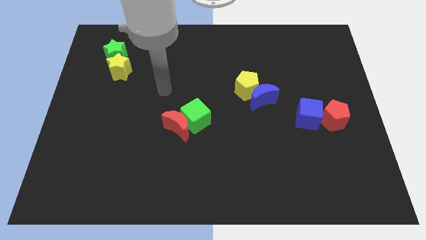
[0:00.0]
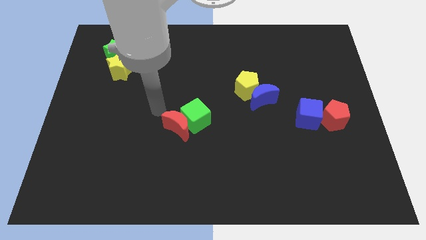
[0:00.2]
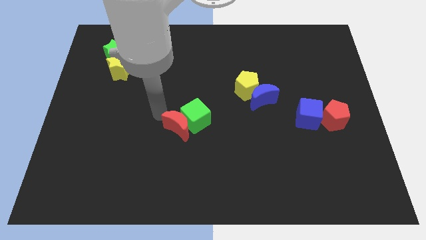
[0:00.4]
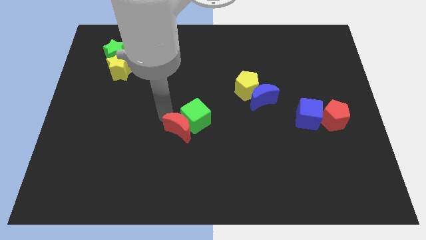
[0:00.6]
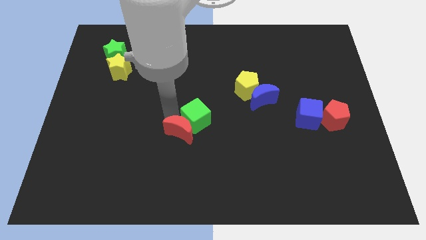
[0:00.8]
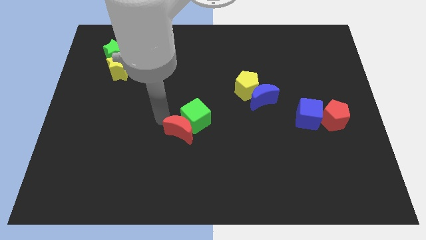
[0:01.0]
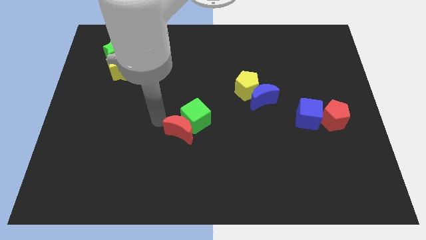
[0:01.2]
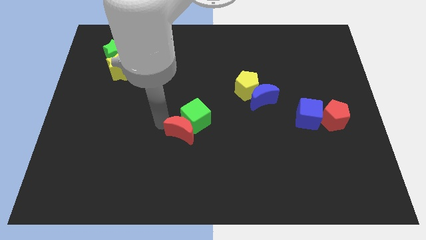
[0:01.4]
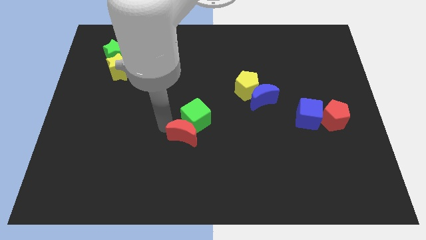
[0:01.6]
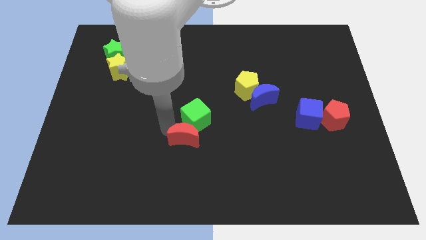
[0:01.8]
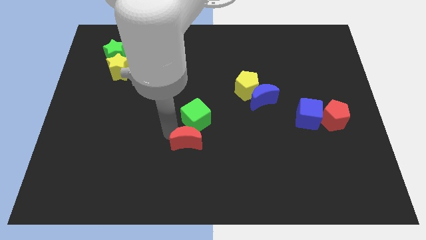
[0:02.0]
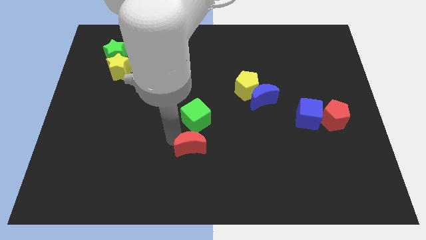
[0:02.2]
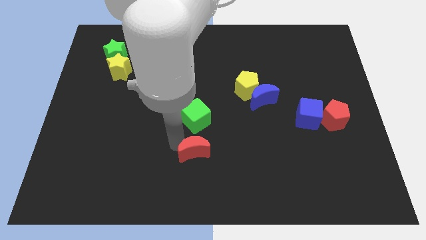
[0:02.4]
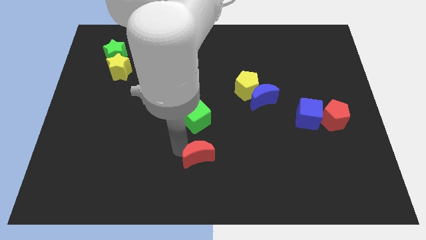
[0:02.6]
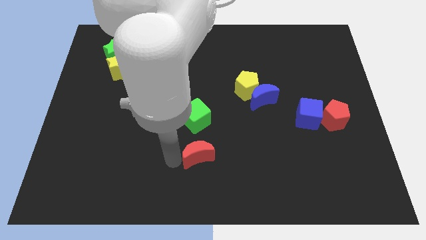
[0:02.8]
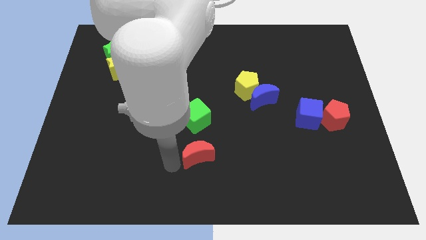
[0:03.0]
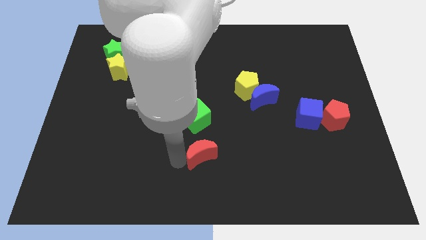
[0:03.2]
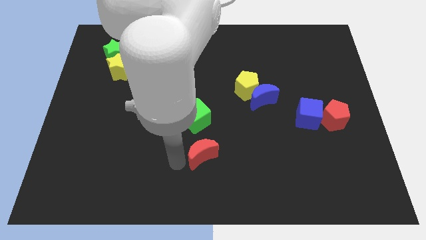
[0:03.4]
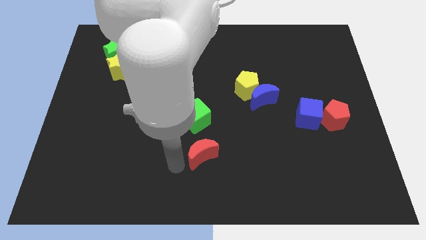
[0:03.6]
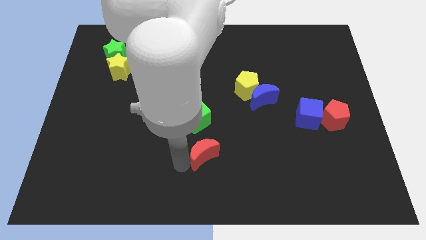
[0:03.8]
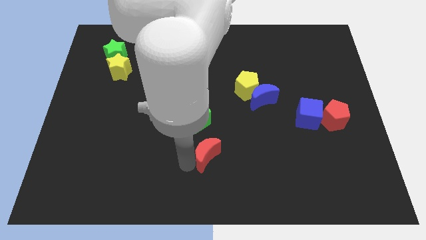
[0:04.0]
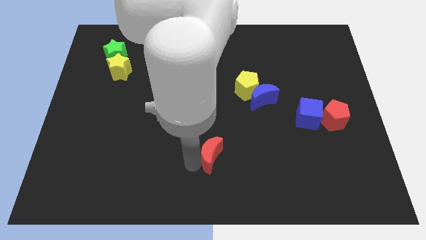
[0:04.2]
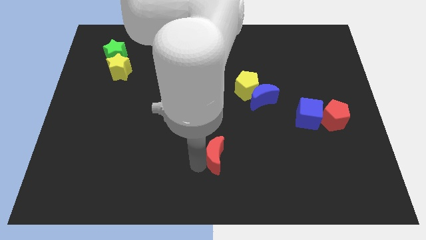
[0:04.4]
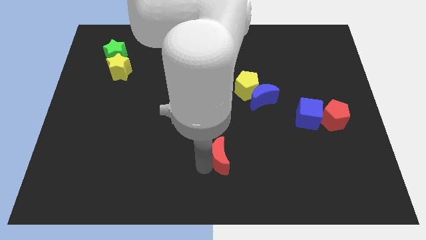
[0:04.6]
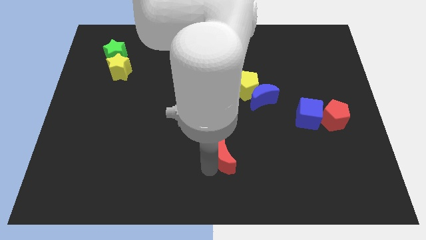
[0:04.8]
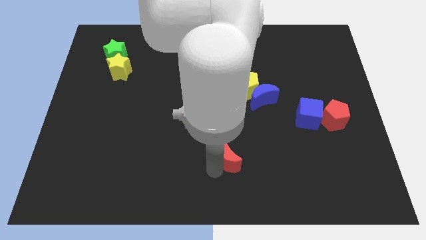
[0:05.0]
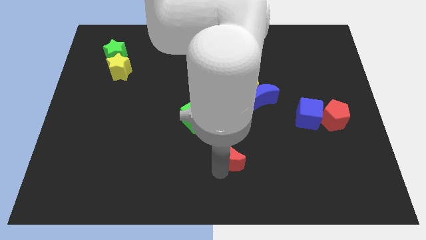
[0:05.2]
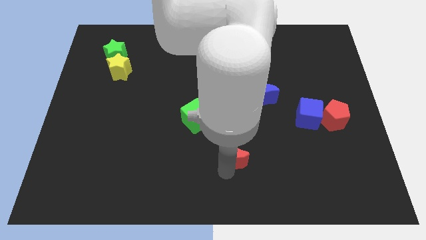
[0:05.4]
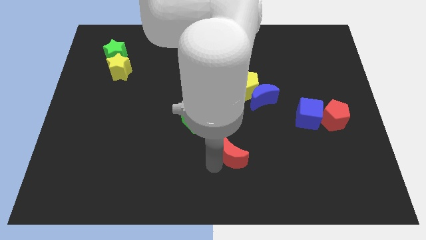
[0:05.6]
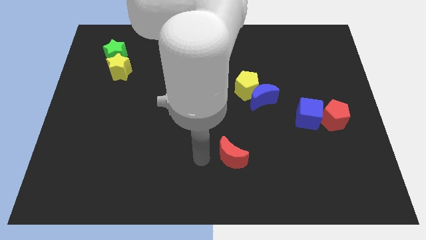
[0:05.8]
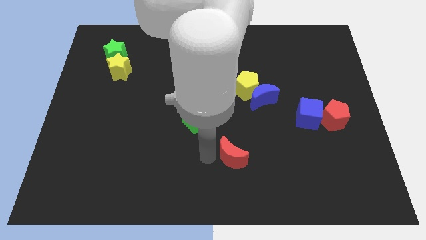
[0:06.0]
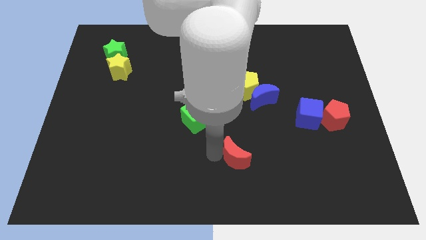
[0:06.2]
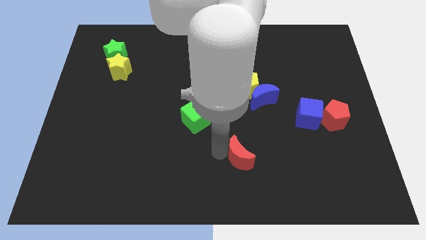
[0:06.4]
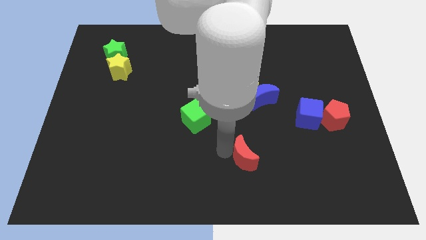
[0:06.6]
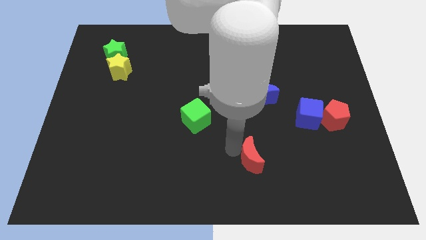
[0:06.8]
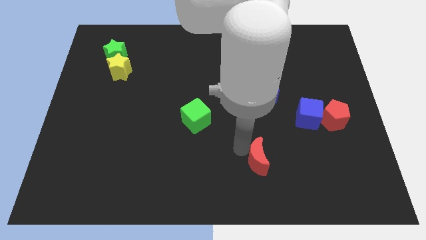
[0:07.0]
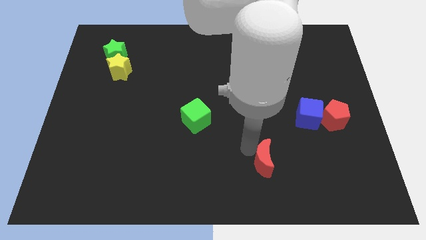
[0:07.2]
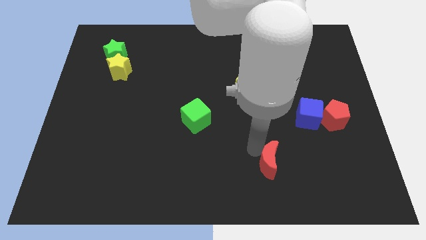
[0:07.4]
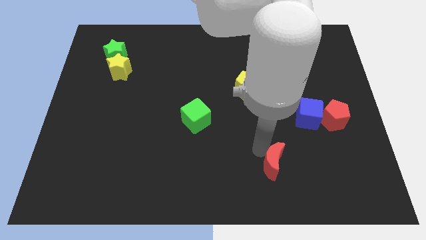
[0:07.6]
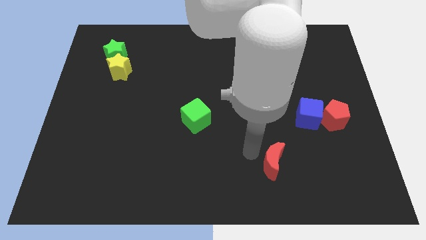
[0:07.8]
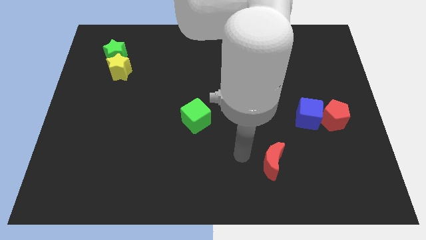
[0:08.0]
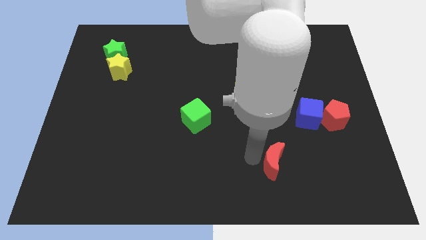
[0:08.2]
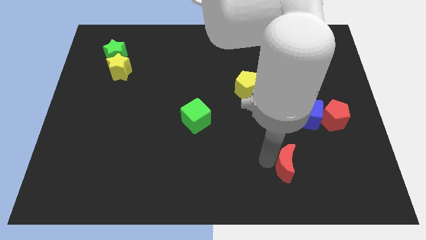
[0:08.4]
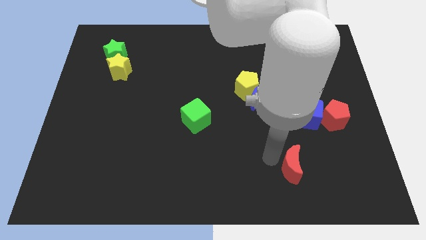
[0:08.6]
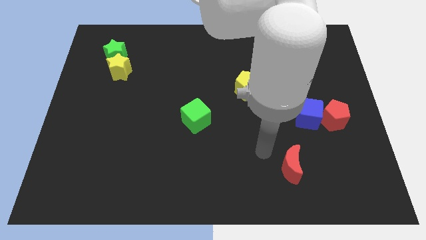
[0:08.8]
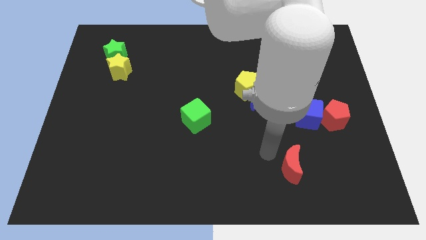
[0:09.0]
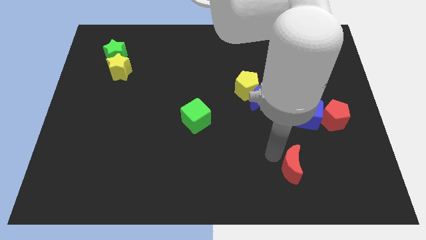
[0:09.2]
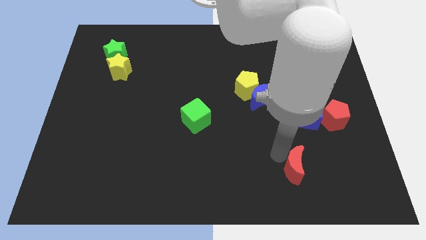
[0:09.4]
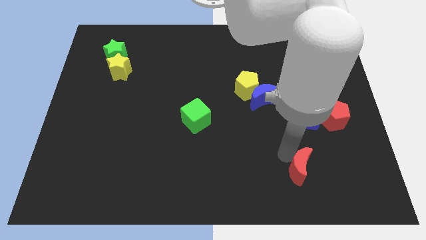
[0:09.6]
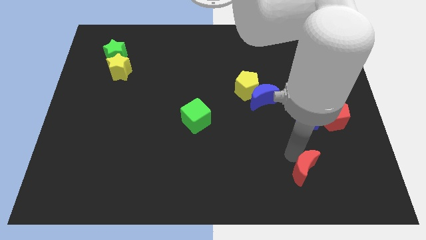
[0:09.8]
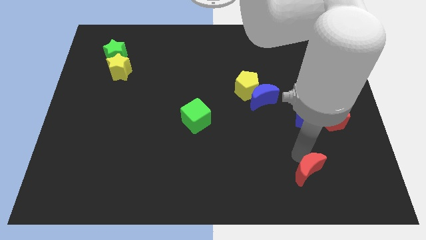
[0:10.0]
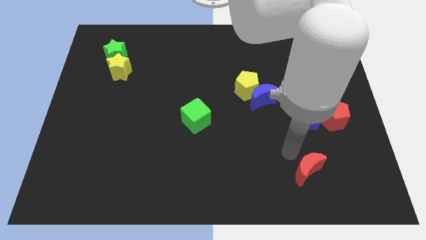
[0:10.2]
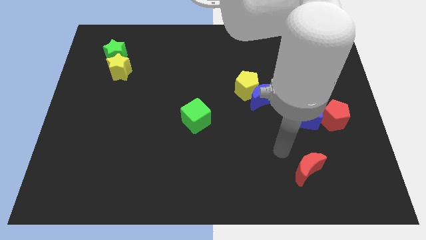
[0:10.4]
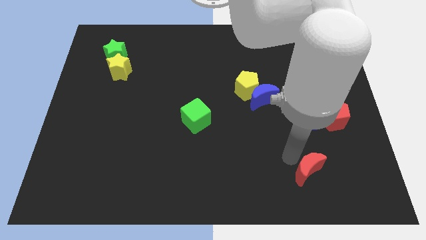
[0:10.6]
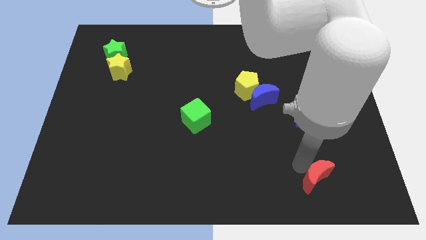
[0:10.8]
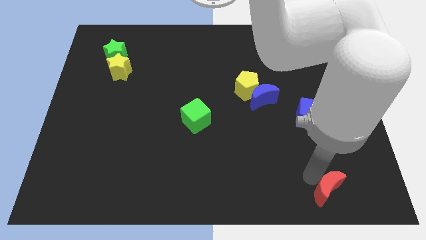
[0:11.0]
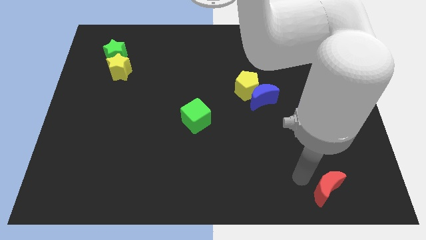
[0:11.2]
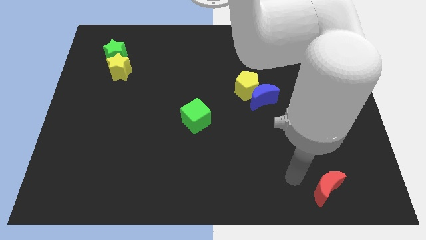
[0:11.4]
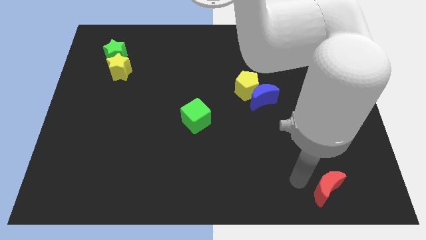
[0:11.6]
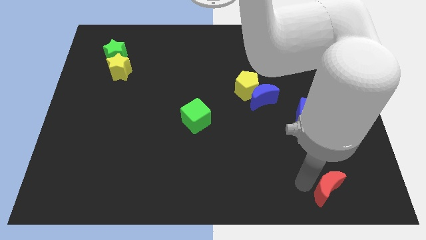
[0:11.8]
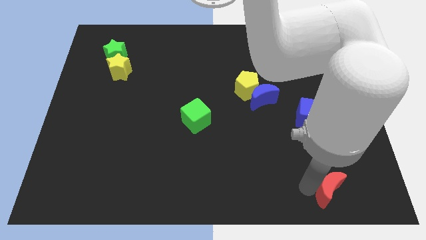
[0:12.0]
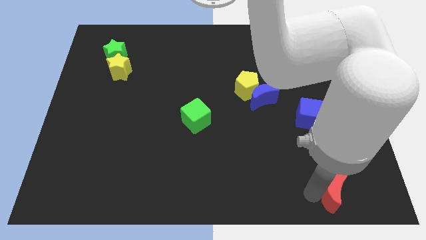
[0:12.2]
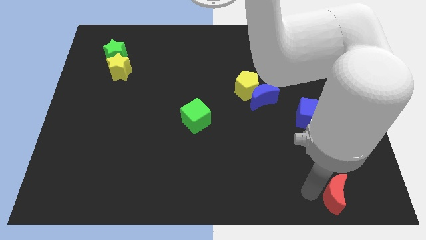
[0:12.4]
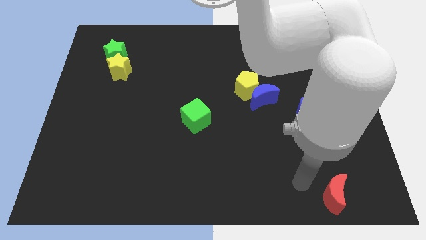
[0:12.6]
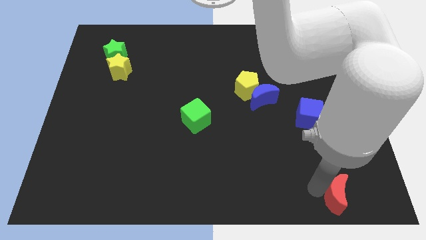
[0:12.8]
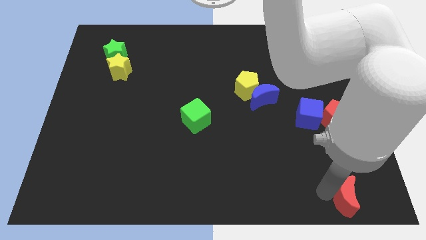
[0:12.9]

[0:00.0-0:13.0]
move the red moon to the bottom right

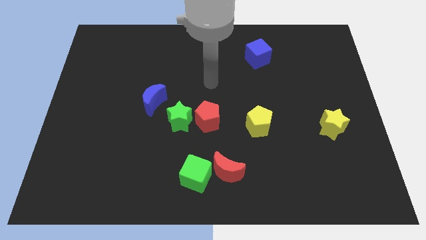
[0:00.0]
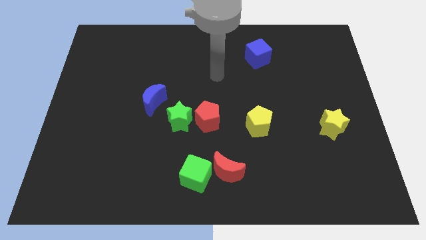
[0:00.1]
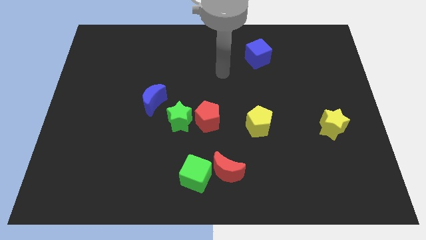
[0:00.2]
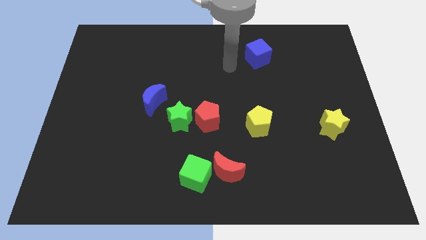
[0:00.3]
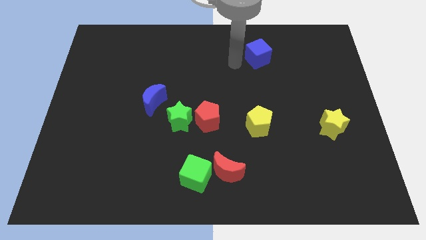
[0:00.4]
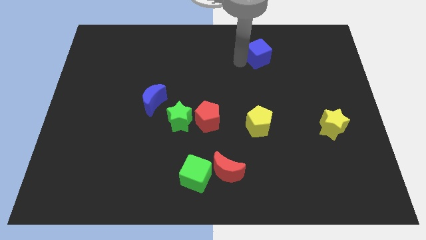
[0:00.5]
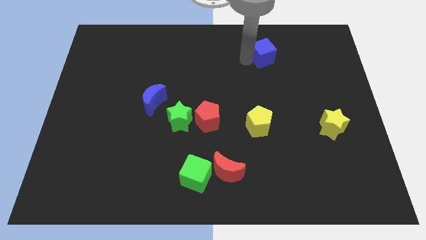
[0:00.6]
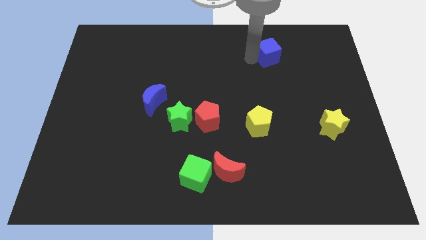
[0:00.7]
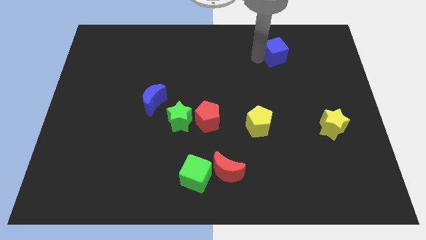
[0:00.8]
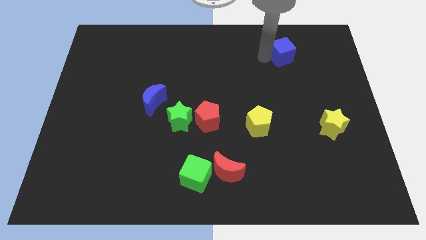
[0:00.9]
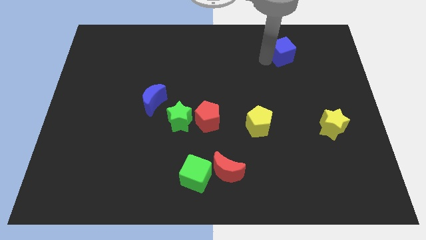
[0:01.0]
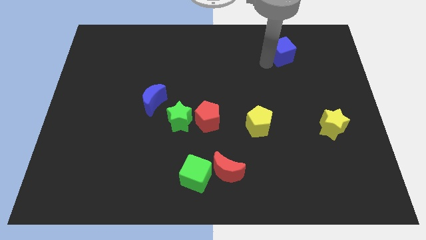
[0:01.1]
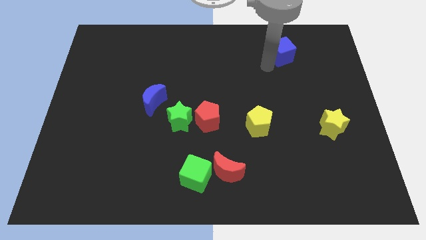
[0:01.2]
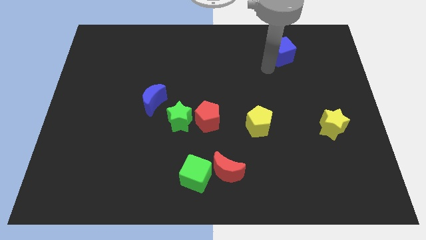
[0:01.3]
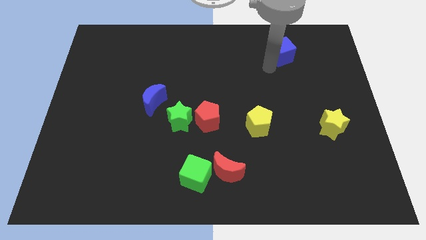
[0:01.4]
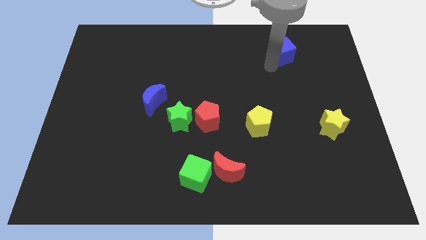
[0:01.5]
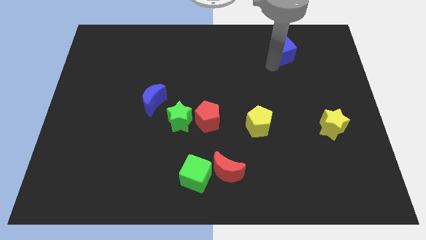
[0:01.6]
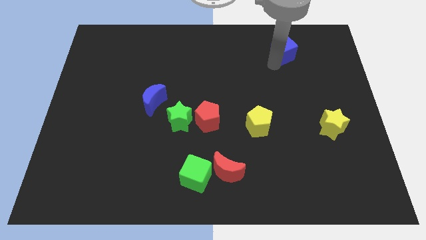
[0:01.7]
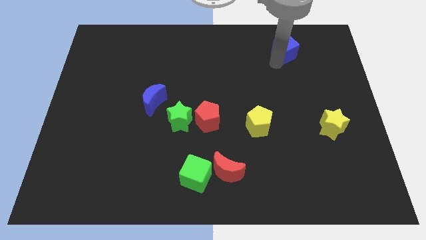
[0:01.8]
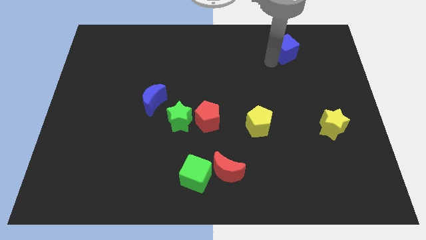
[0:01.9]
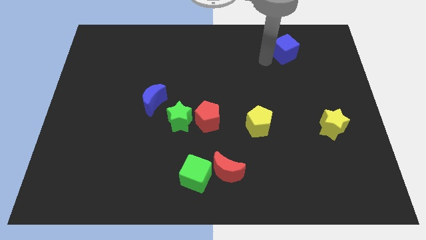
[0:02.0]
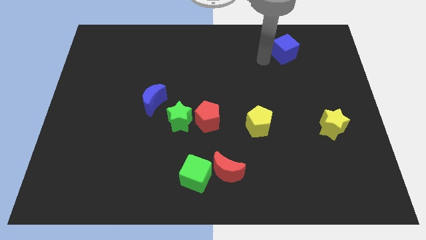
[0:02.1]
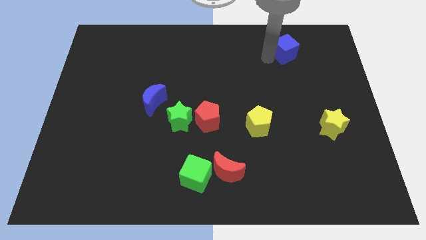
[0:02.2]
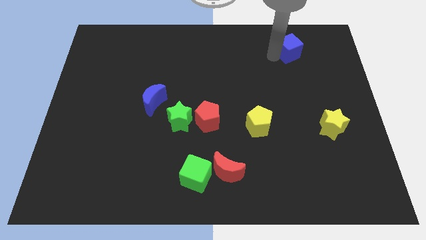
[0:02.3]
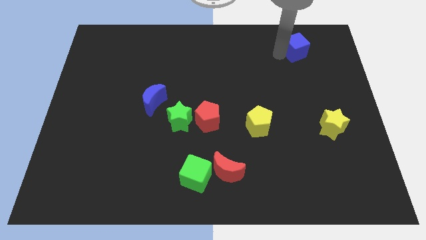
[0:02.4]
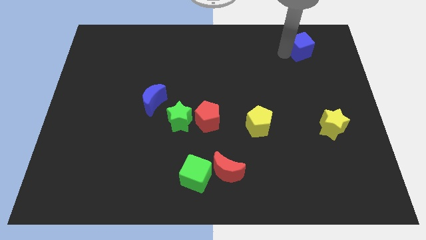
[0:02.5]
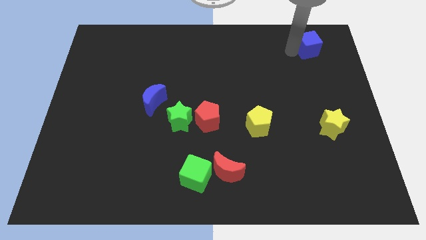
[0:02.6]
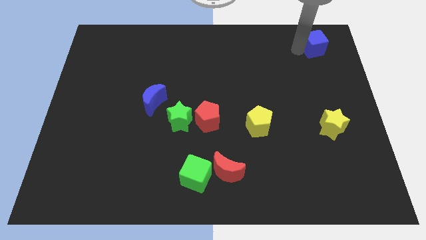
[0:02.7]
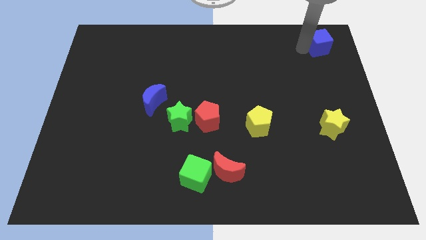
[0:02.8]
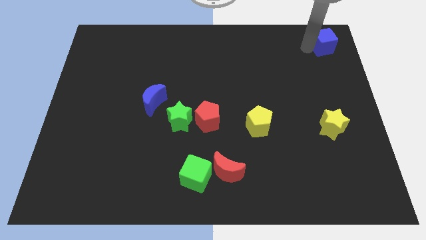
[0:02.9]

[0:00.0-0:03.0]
move the blue cube to the top right corner
